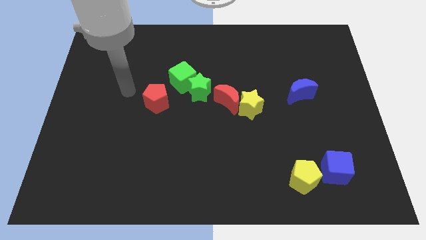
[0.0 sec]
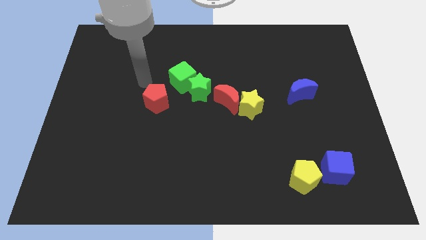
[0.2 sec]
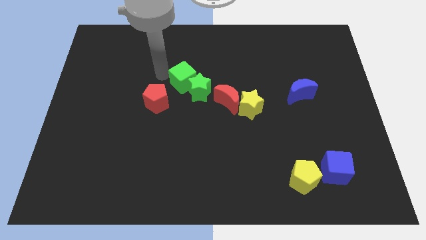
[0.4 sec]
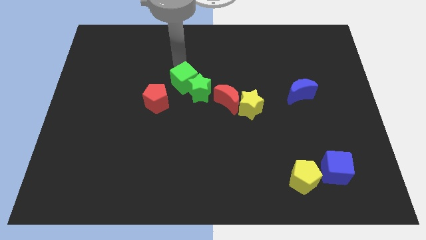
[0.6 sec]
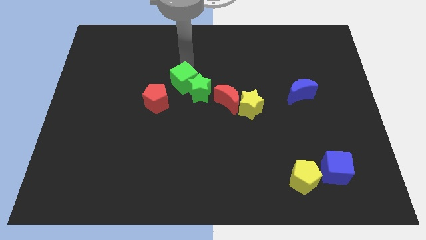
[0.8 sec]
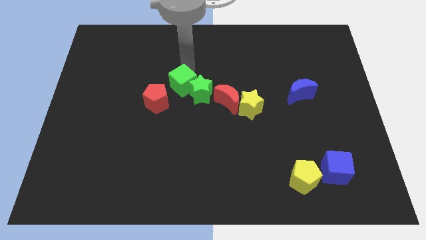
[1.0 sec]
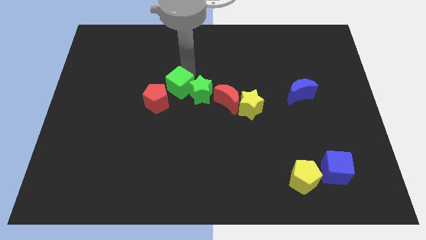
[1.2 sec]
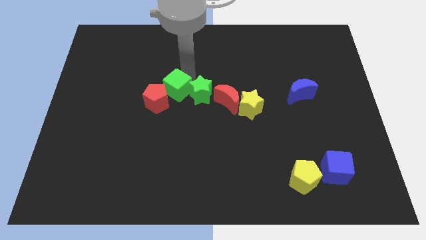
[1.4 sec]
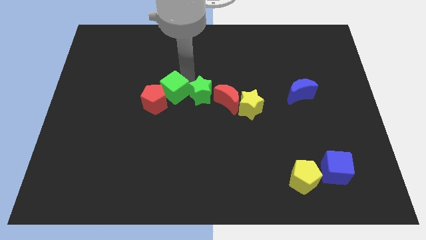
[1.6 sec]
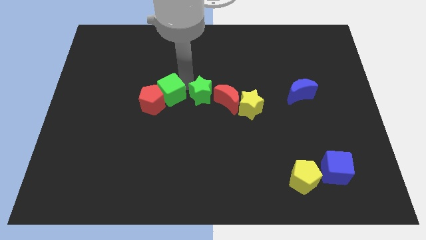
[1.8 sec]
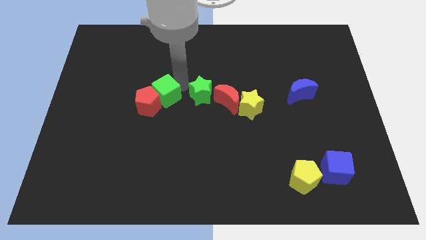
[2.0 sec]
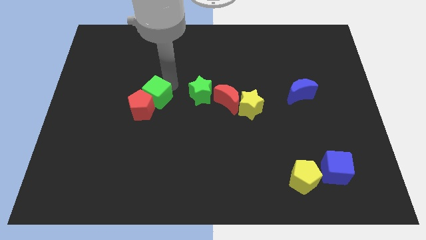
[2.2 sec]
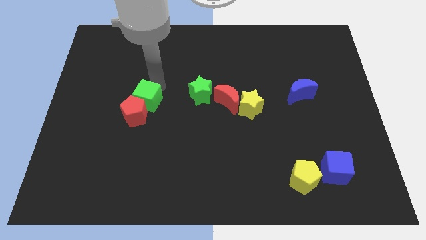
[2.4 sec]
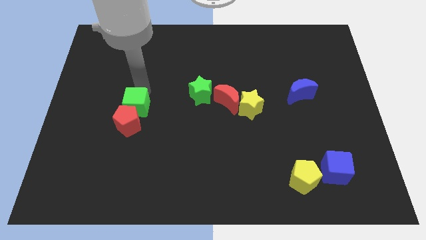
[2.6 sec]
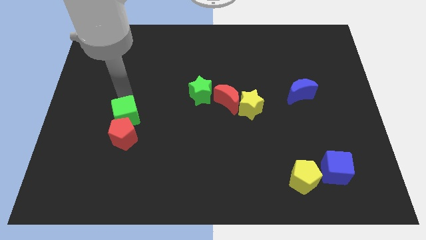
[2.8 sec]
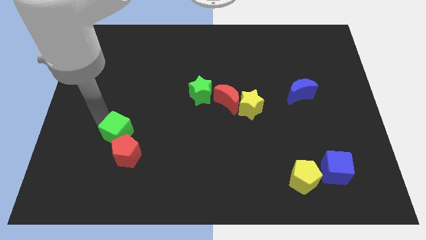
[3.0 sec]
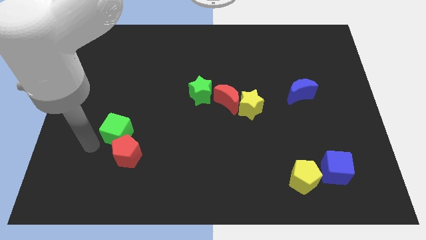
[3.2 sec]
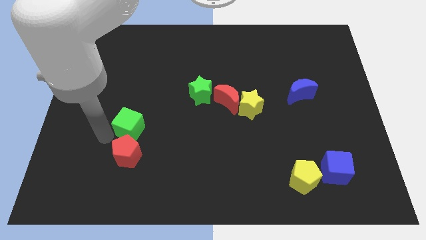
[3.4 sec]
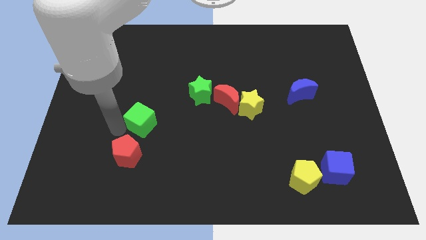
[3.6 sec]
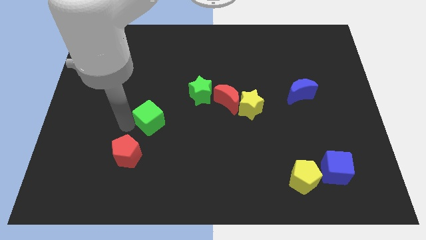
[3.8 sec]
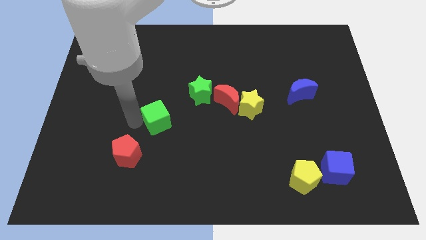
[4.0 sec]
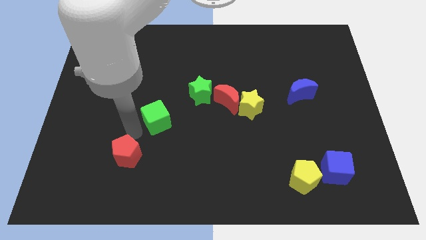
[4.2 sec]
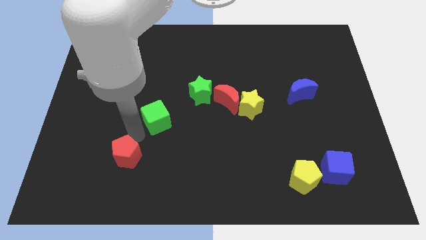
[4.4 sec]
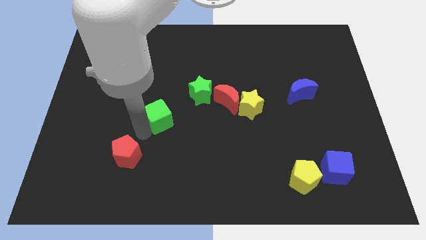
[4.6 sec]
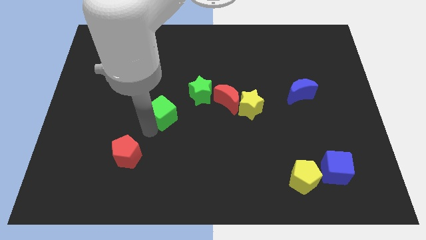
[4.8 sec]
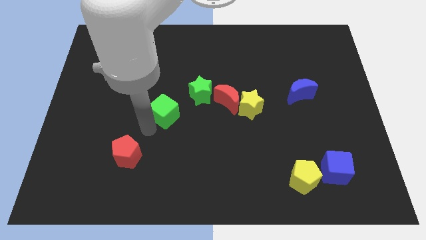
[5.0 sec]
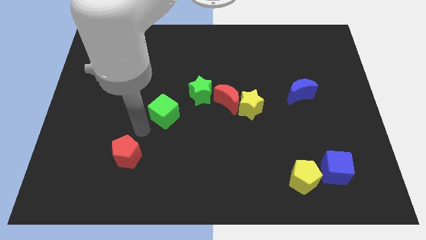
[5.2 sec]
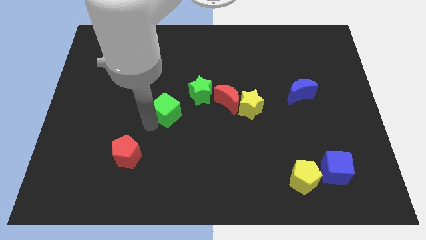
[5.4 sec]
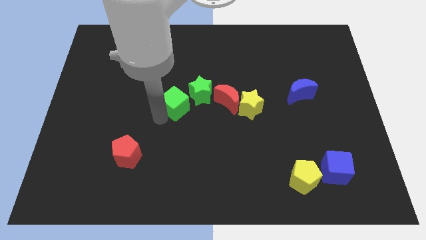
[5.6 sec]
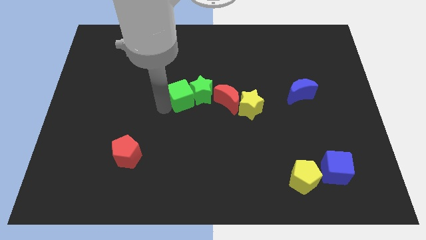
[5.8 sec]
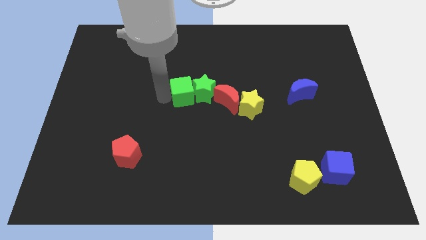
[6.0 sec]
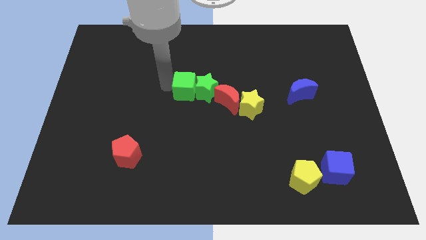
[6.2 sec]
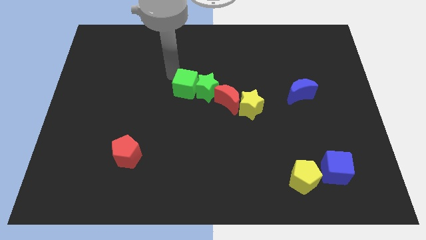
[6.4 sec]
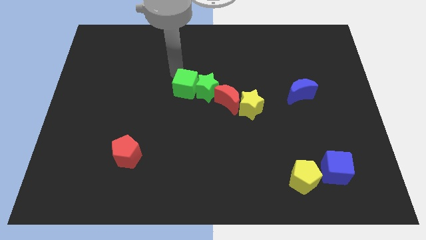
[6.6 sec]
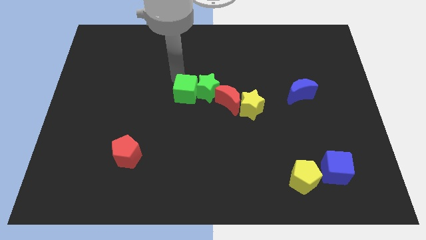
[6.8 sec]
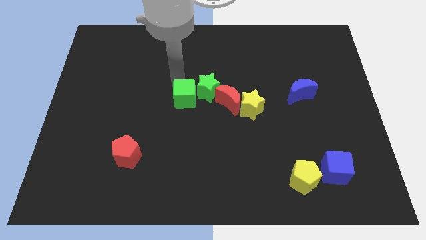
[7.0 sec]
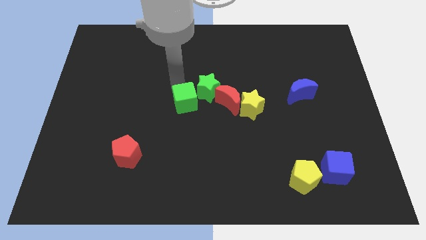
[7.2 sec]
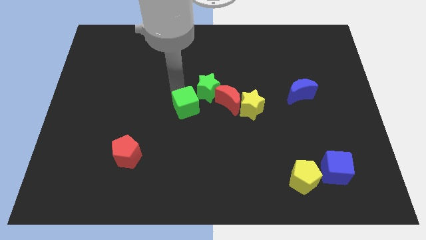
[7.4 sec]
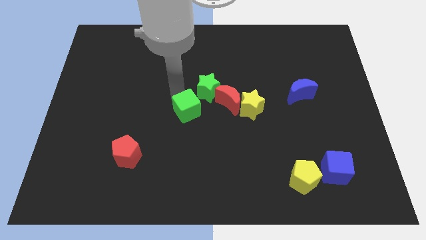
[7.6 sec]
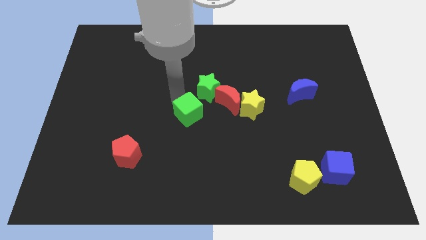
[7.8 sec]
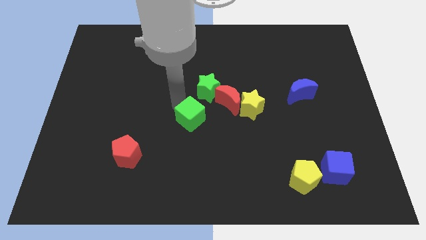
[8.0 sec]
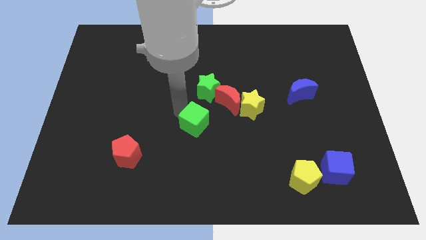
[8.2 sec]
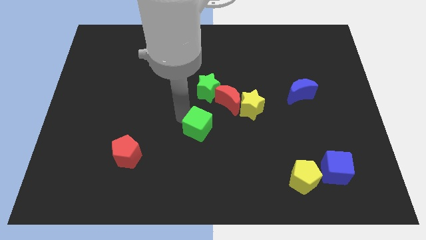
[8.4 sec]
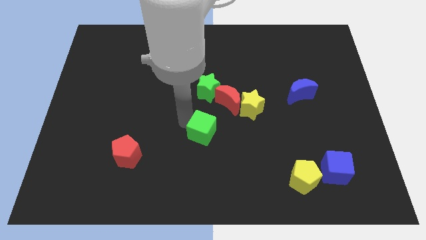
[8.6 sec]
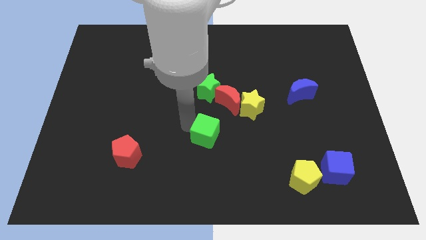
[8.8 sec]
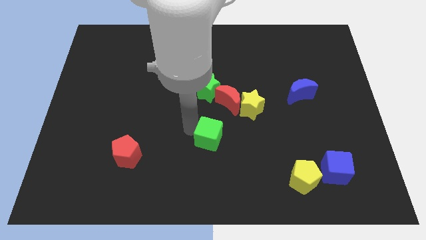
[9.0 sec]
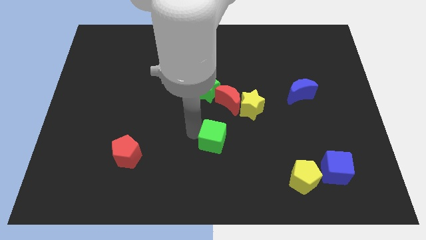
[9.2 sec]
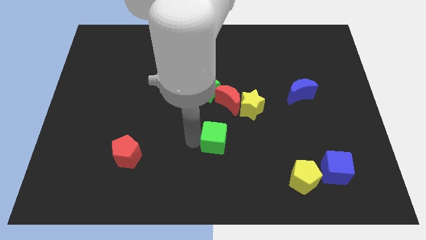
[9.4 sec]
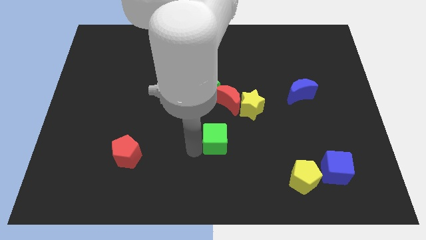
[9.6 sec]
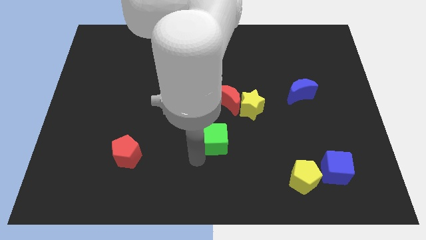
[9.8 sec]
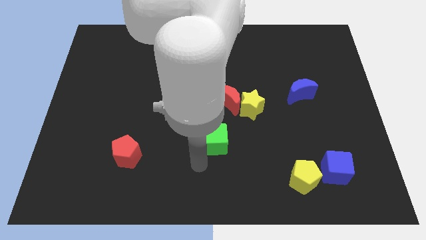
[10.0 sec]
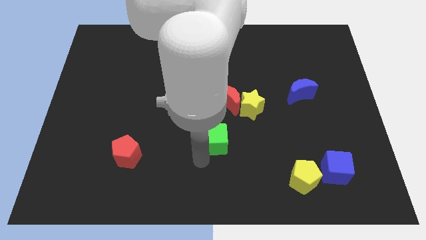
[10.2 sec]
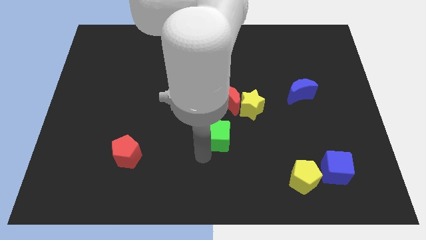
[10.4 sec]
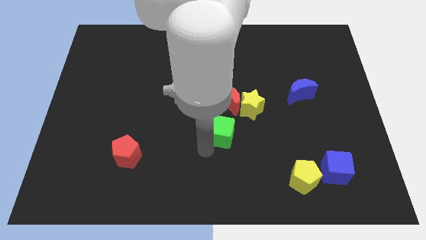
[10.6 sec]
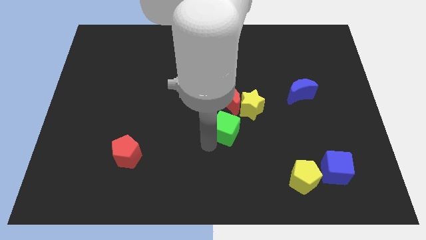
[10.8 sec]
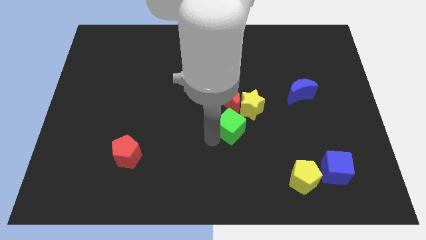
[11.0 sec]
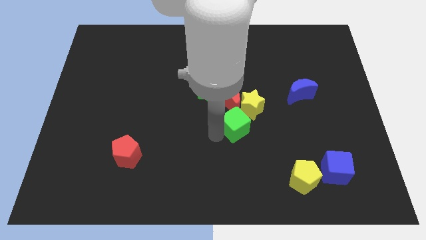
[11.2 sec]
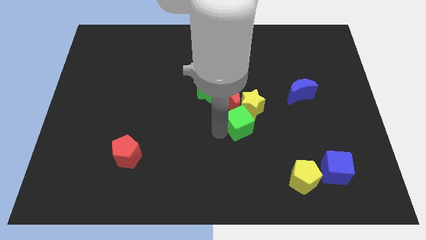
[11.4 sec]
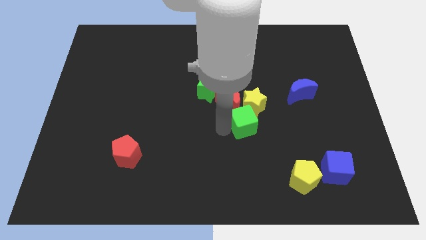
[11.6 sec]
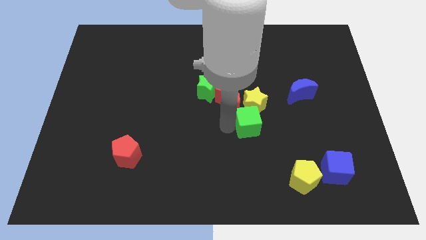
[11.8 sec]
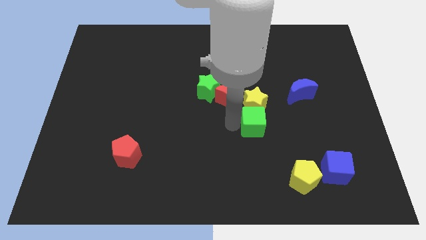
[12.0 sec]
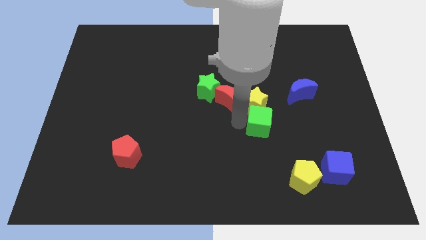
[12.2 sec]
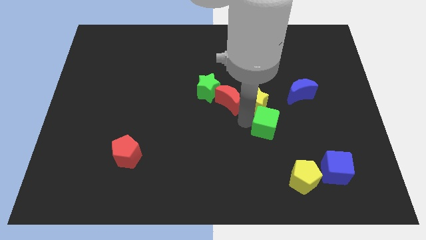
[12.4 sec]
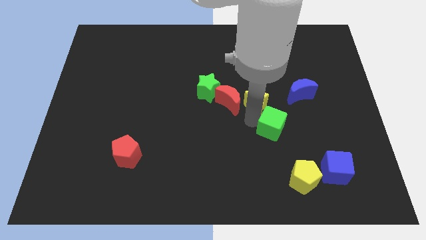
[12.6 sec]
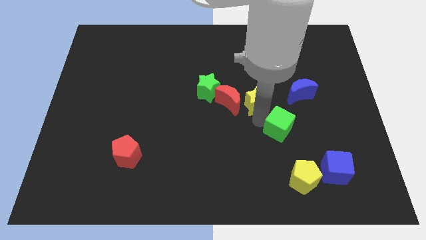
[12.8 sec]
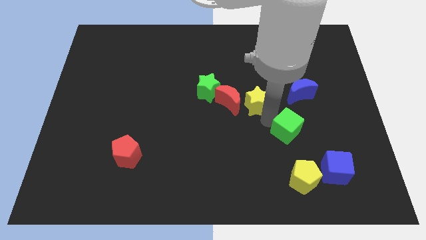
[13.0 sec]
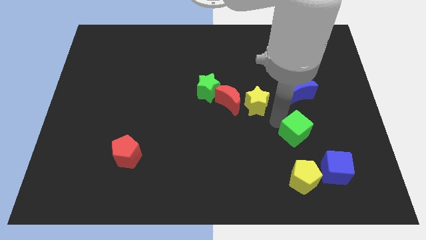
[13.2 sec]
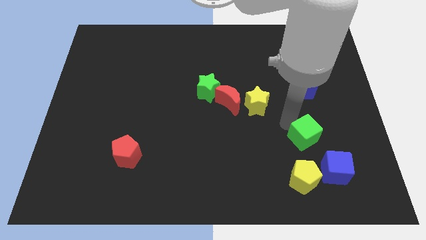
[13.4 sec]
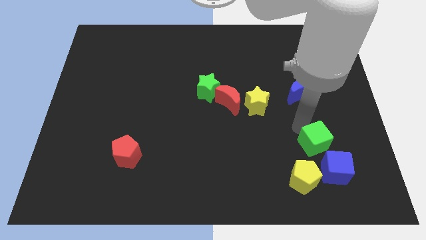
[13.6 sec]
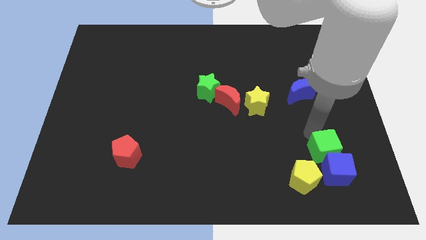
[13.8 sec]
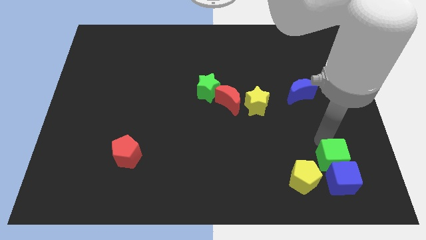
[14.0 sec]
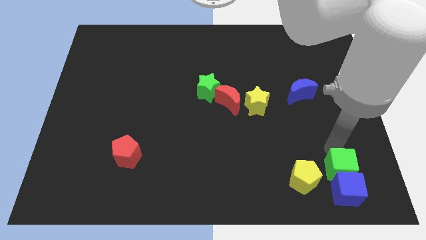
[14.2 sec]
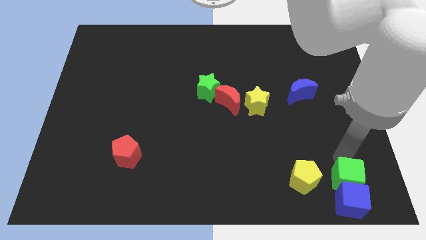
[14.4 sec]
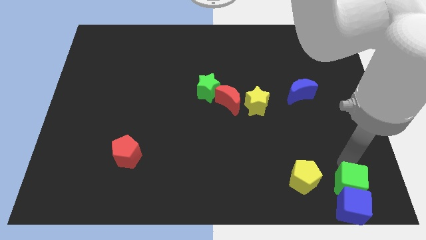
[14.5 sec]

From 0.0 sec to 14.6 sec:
slide the green cube to the lower right corner
